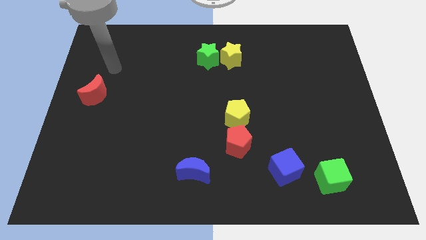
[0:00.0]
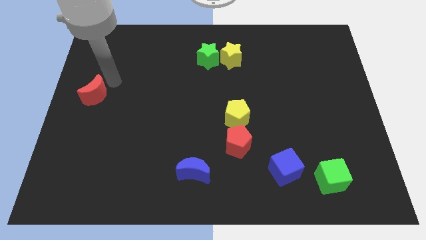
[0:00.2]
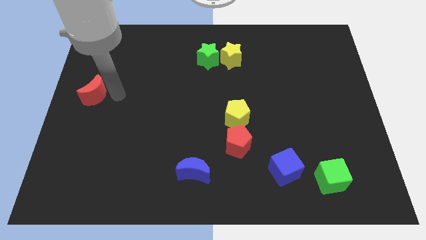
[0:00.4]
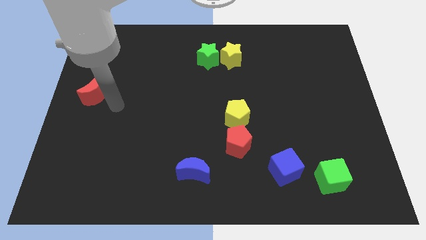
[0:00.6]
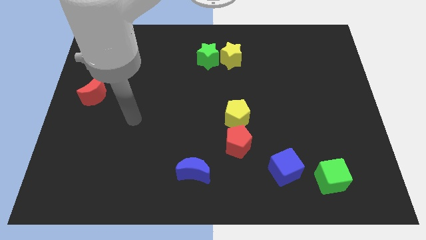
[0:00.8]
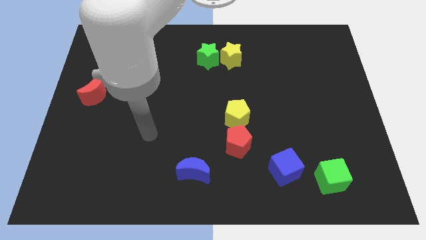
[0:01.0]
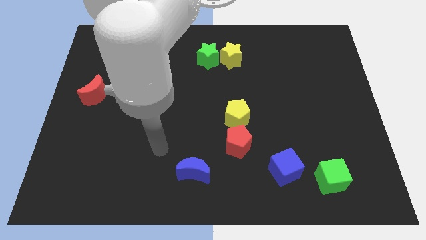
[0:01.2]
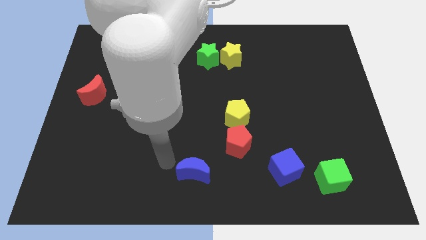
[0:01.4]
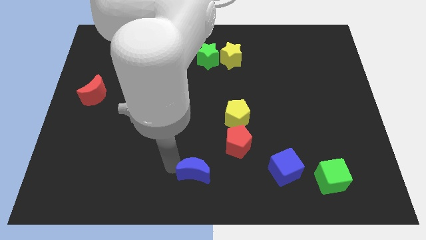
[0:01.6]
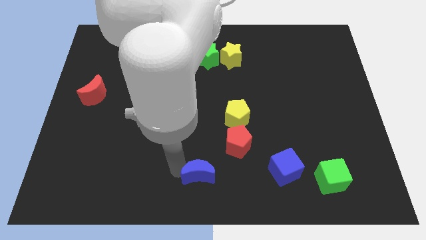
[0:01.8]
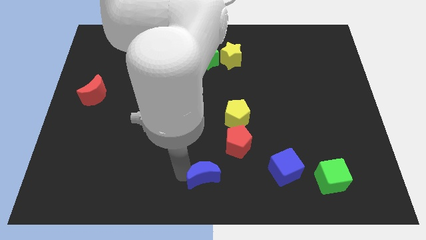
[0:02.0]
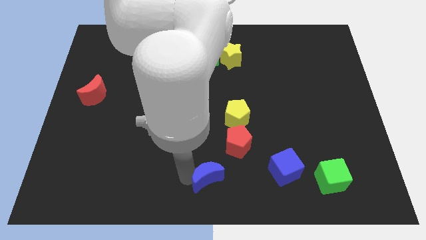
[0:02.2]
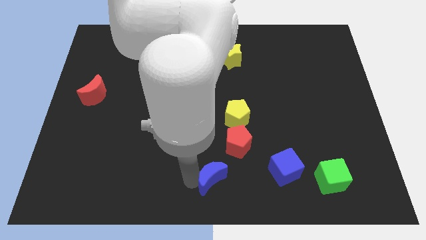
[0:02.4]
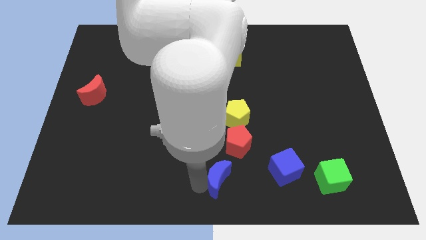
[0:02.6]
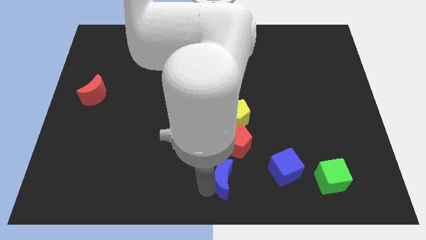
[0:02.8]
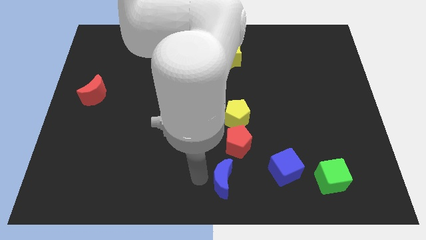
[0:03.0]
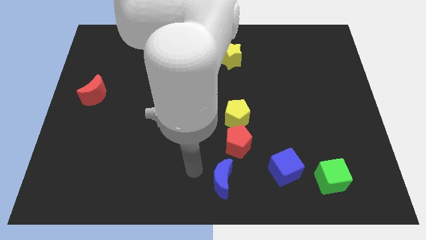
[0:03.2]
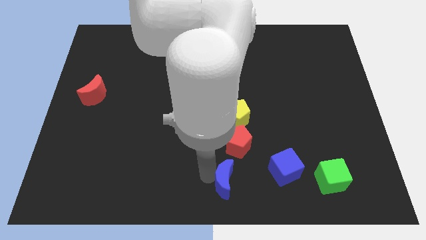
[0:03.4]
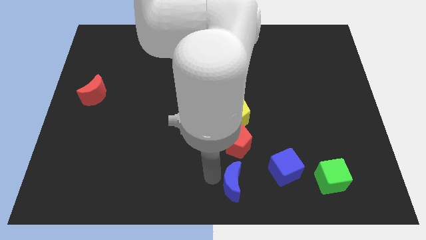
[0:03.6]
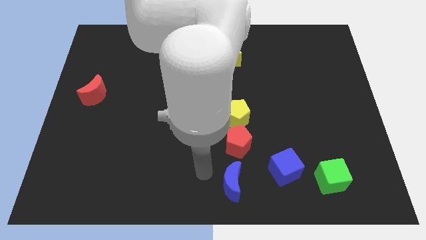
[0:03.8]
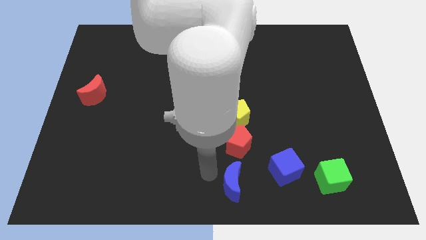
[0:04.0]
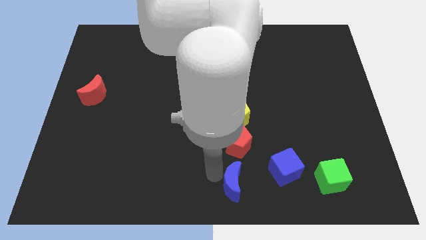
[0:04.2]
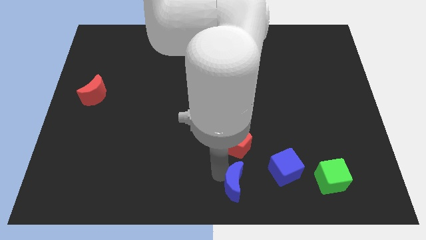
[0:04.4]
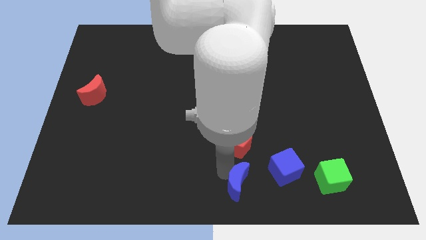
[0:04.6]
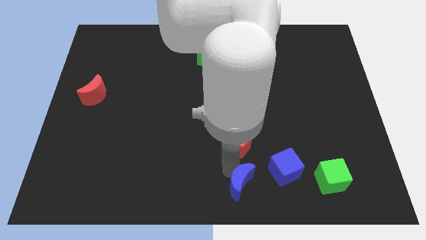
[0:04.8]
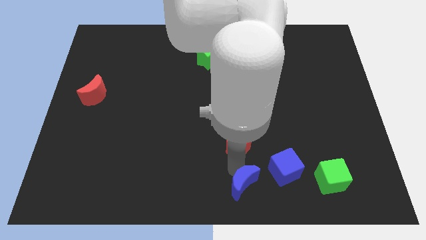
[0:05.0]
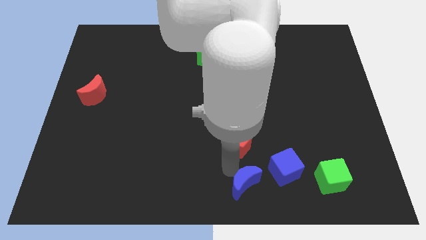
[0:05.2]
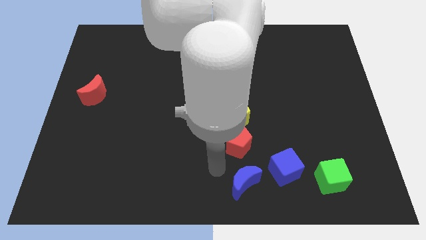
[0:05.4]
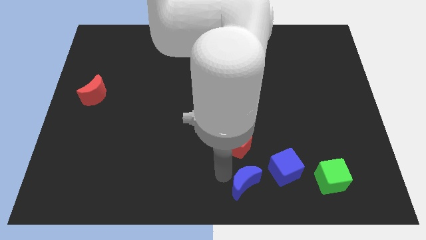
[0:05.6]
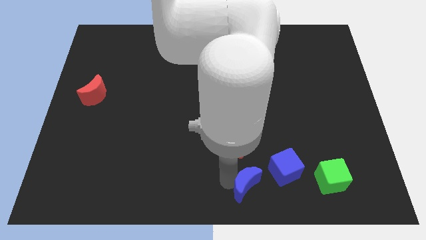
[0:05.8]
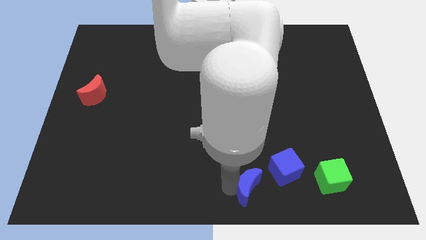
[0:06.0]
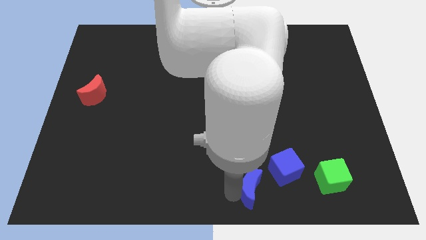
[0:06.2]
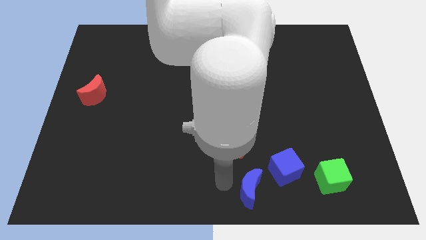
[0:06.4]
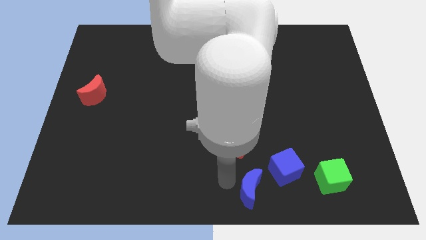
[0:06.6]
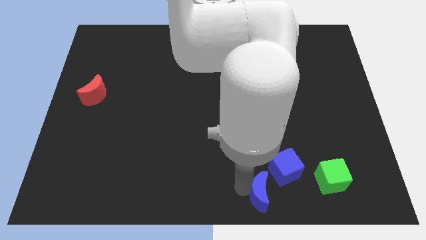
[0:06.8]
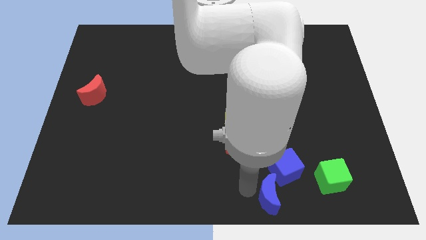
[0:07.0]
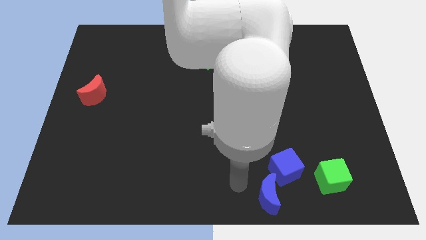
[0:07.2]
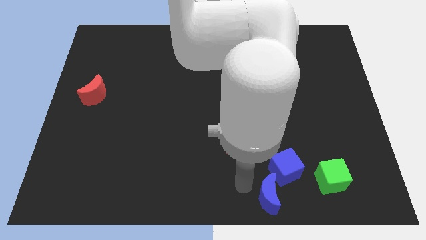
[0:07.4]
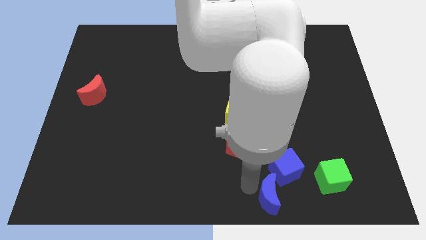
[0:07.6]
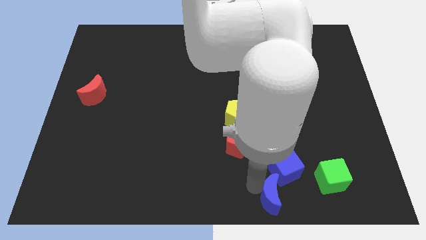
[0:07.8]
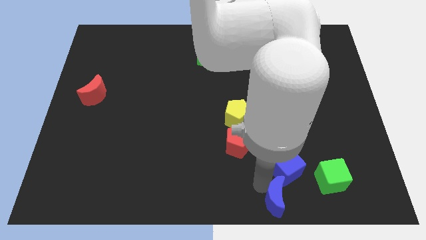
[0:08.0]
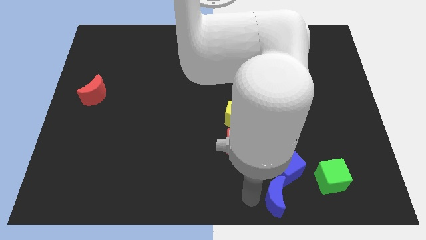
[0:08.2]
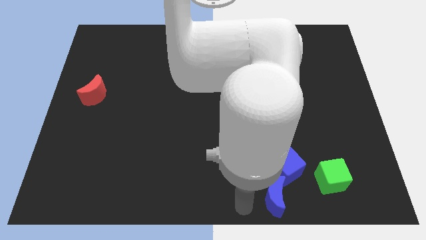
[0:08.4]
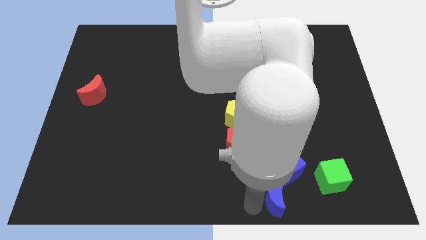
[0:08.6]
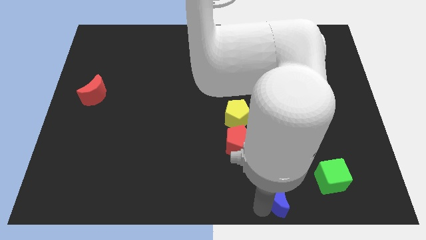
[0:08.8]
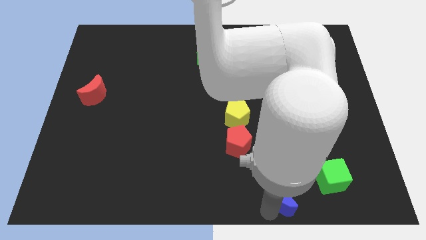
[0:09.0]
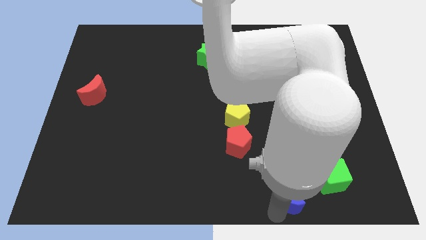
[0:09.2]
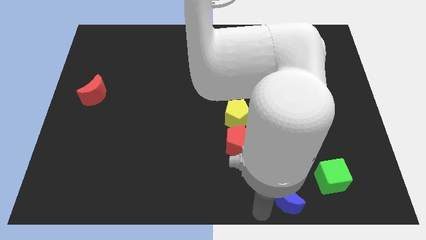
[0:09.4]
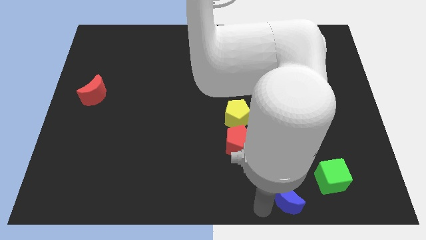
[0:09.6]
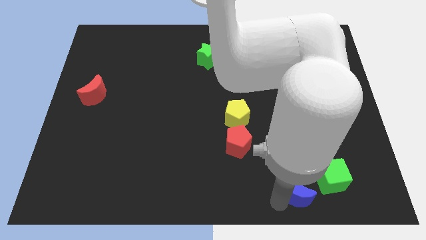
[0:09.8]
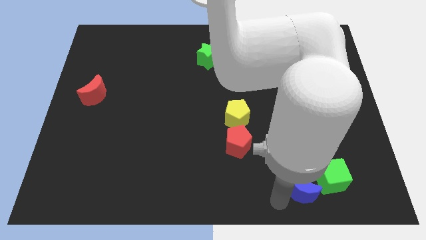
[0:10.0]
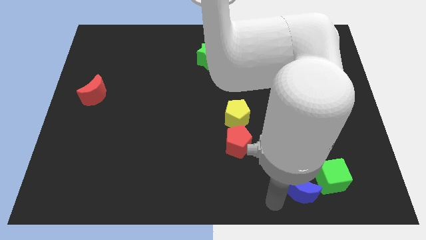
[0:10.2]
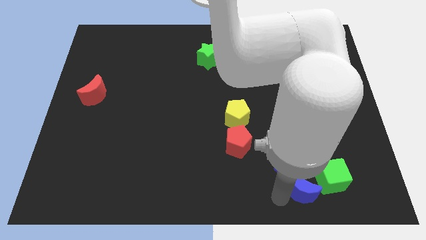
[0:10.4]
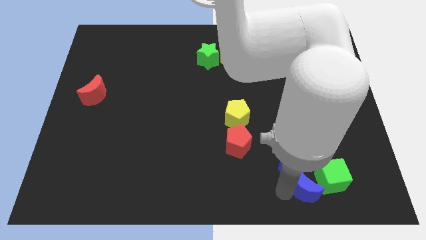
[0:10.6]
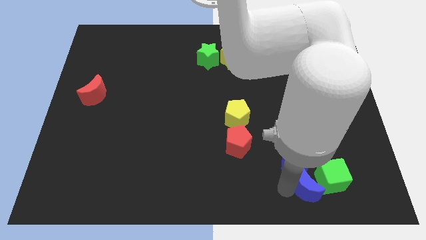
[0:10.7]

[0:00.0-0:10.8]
move the blue moon towards the green cube

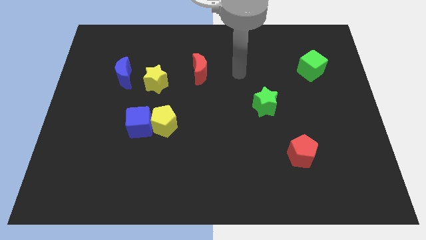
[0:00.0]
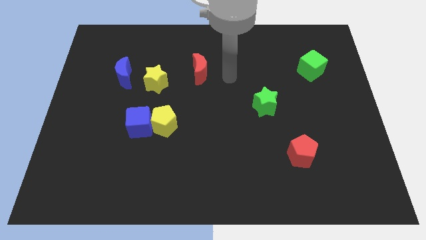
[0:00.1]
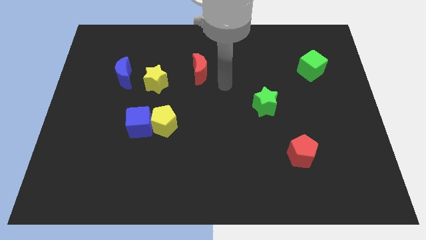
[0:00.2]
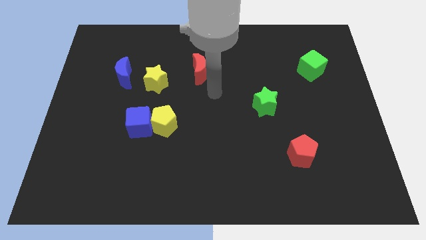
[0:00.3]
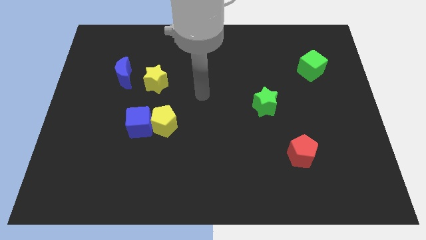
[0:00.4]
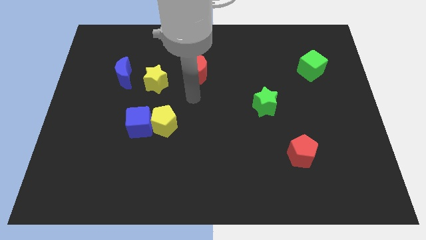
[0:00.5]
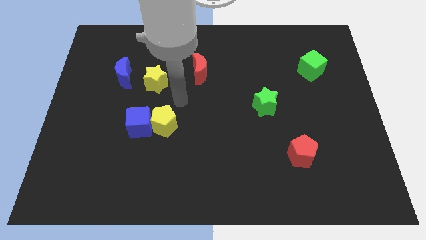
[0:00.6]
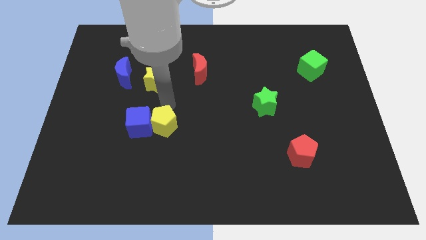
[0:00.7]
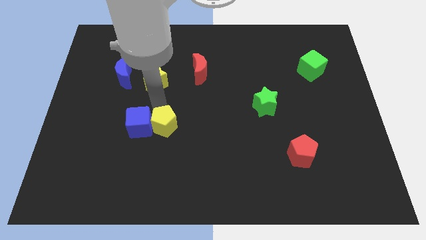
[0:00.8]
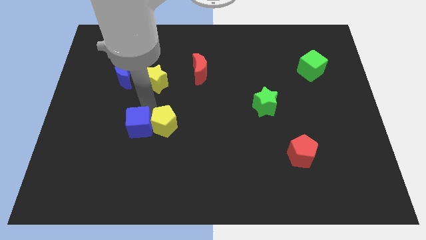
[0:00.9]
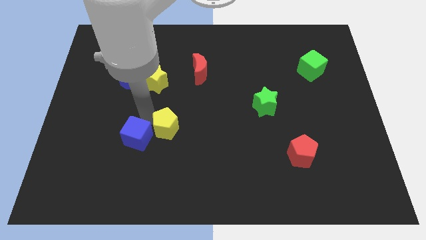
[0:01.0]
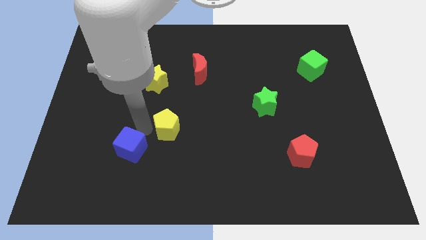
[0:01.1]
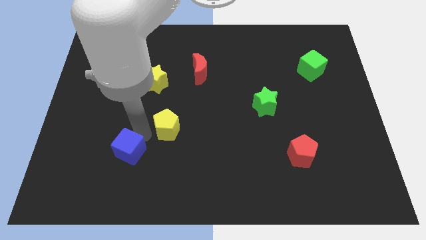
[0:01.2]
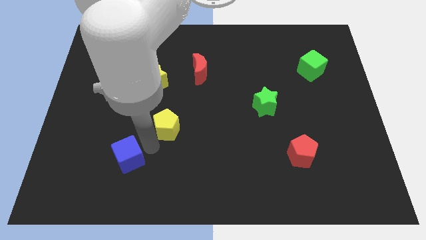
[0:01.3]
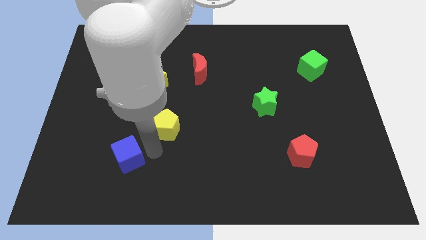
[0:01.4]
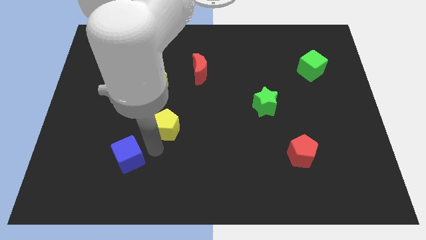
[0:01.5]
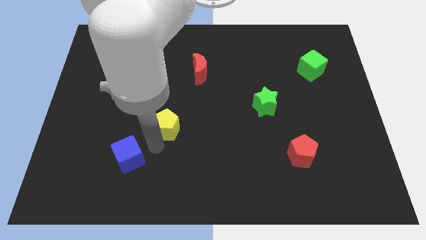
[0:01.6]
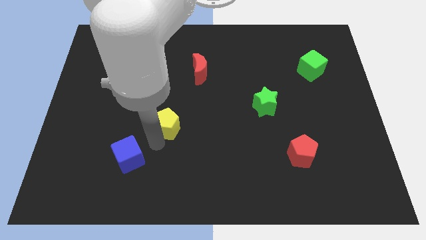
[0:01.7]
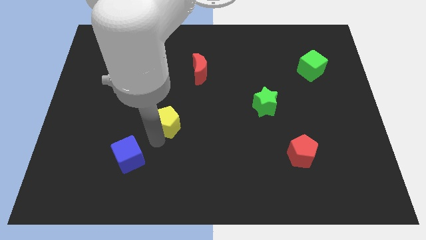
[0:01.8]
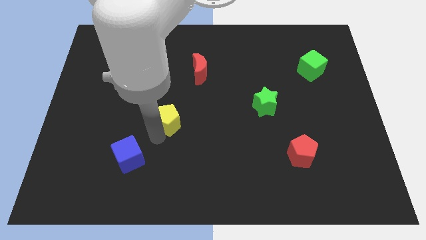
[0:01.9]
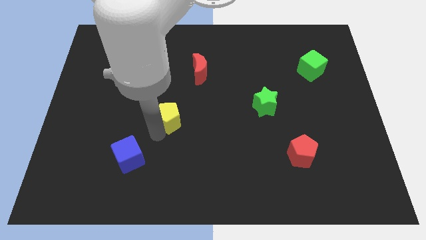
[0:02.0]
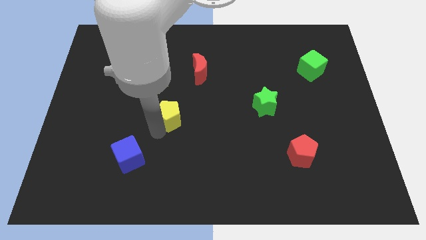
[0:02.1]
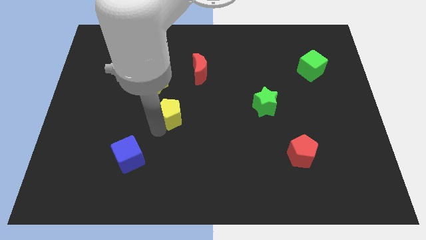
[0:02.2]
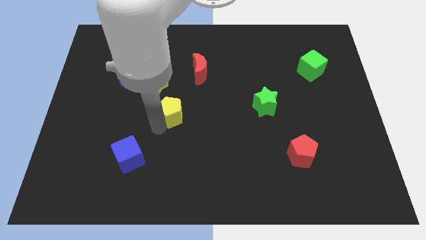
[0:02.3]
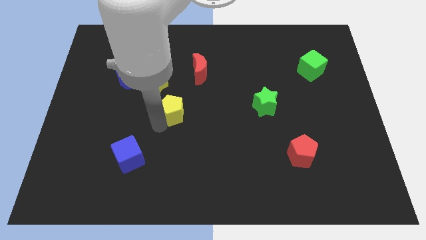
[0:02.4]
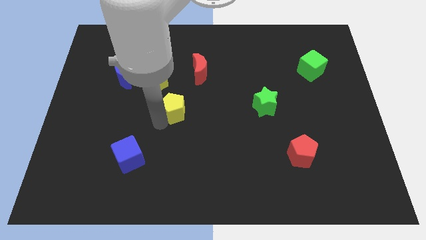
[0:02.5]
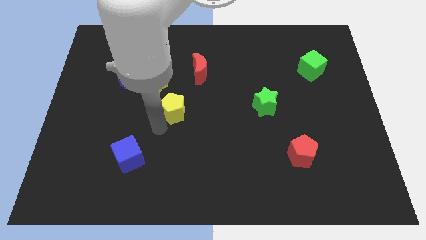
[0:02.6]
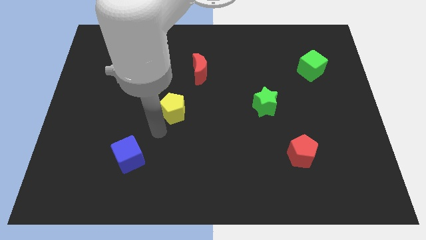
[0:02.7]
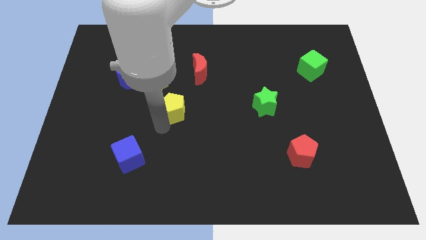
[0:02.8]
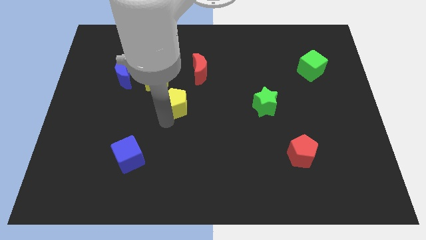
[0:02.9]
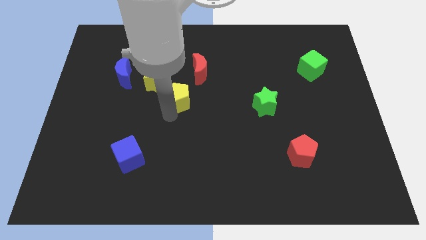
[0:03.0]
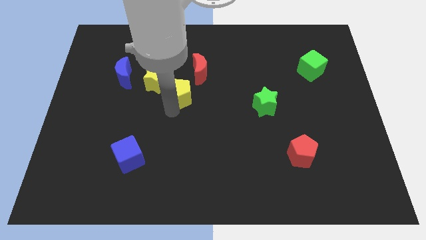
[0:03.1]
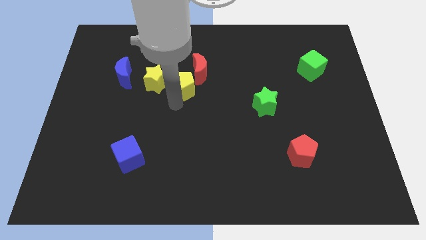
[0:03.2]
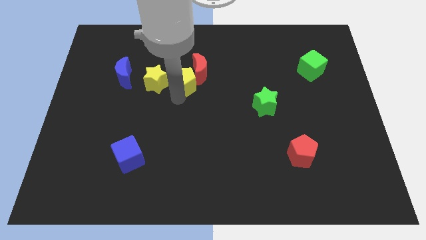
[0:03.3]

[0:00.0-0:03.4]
move the yellow pentagon next to the red moon
